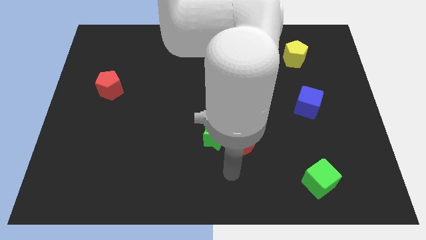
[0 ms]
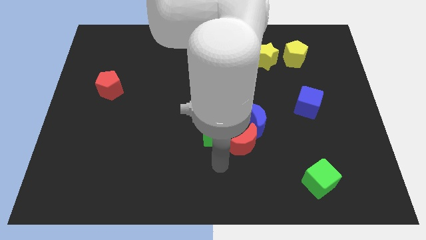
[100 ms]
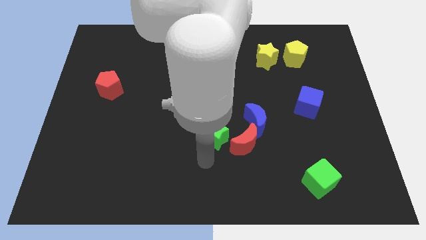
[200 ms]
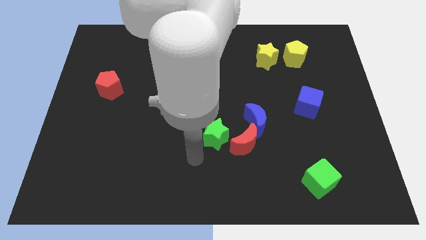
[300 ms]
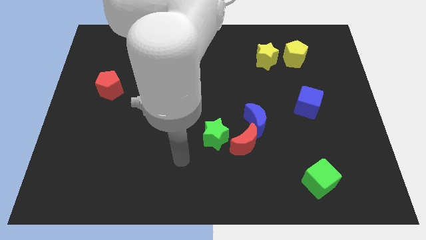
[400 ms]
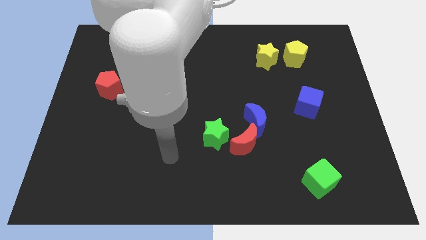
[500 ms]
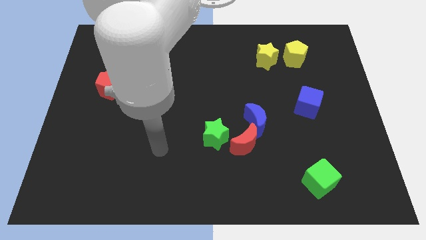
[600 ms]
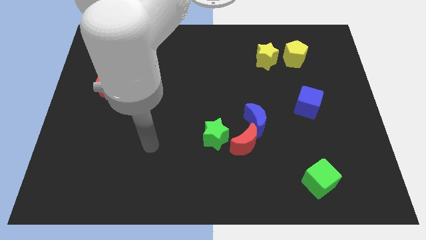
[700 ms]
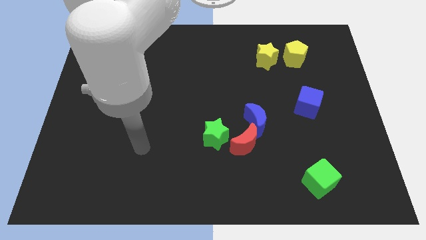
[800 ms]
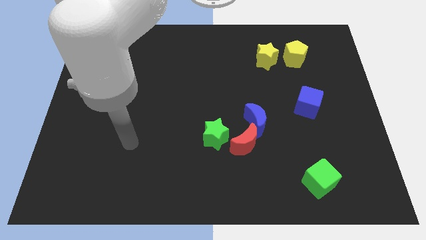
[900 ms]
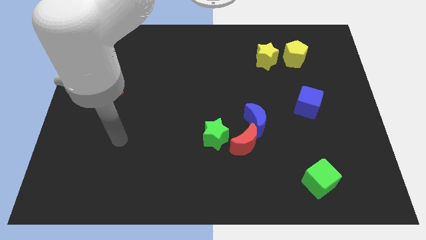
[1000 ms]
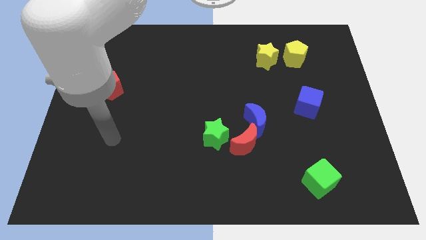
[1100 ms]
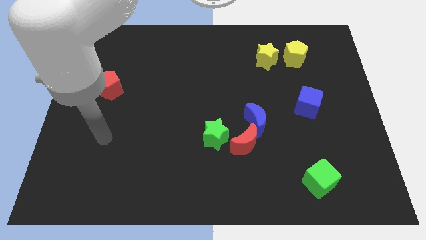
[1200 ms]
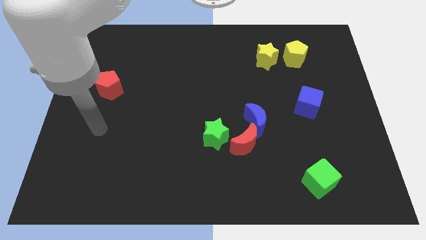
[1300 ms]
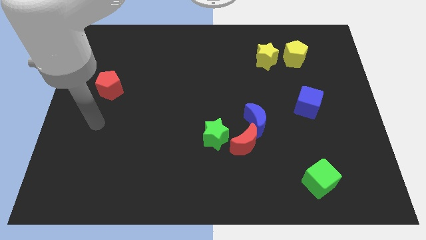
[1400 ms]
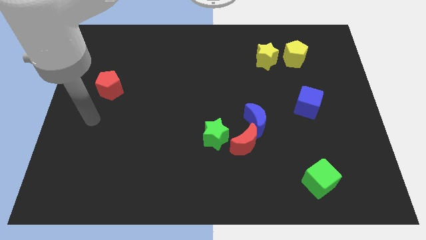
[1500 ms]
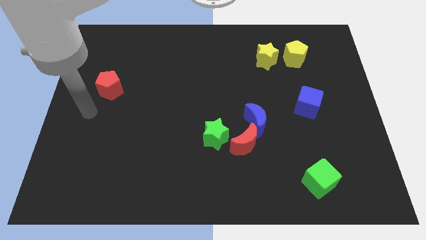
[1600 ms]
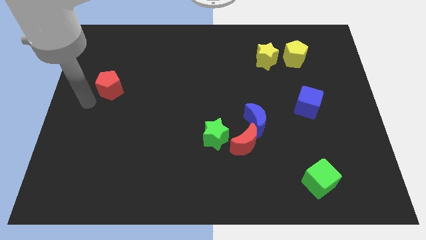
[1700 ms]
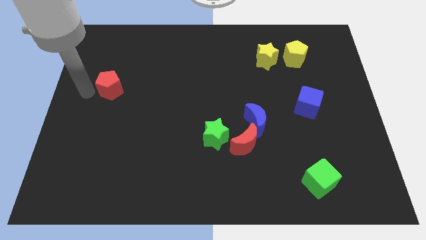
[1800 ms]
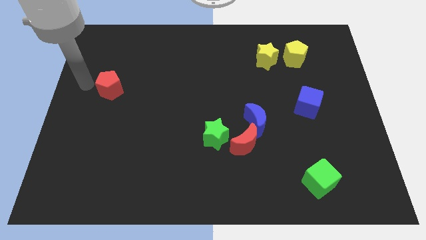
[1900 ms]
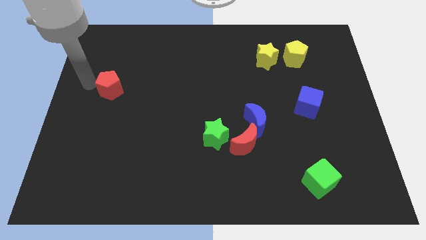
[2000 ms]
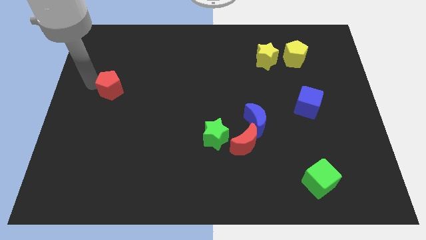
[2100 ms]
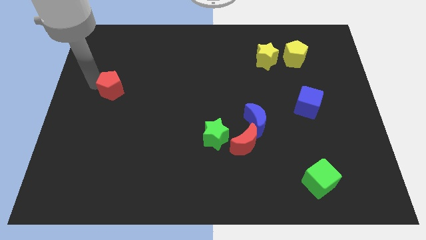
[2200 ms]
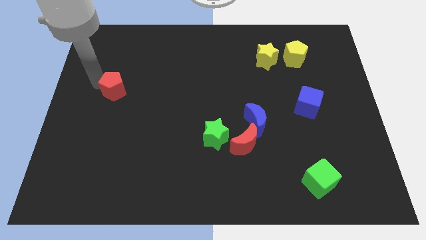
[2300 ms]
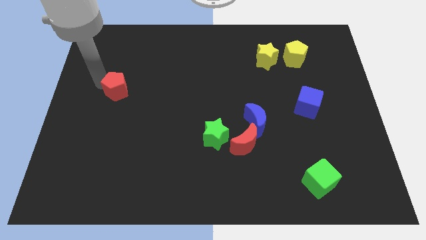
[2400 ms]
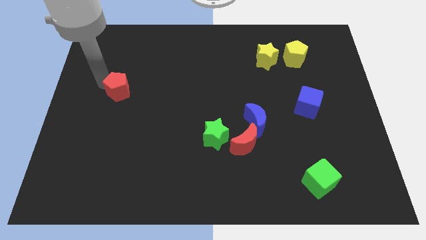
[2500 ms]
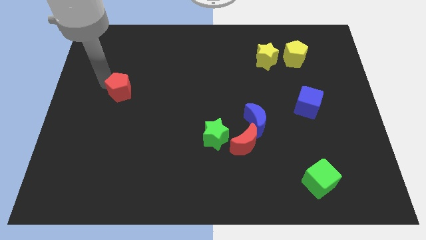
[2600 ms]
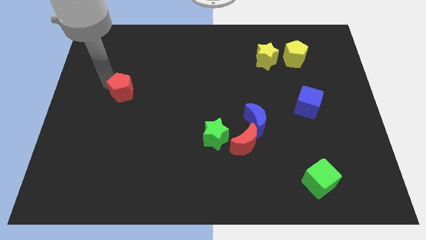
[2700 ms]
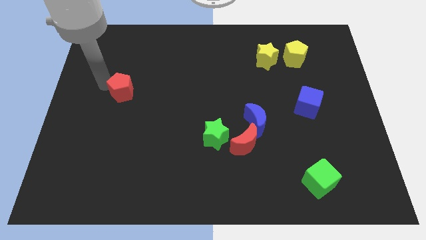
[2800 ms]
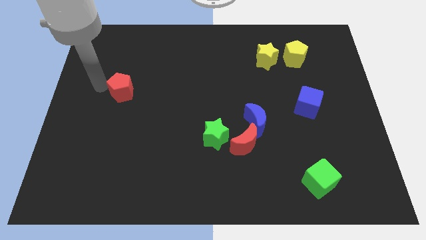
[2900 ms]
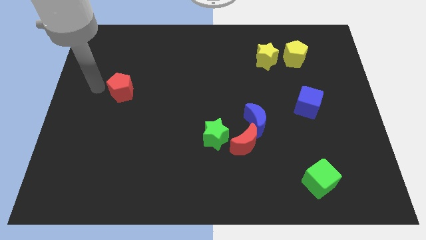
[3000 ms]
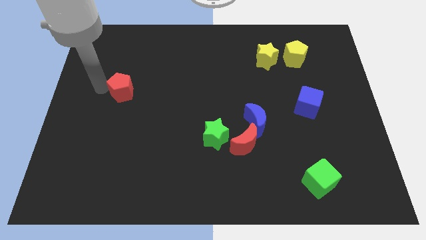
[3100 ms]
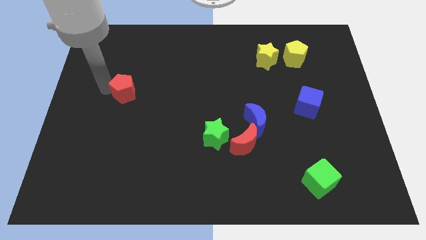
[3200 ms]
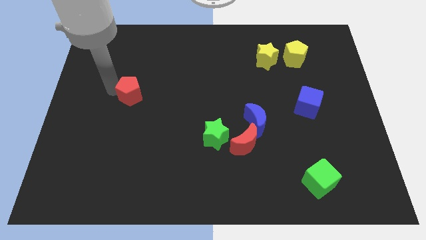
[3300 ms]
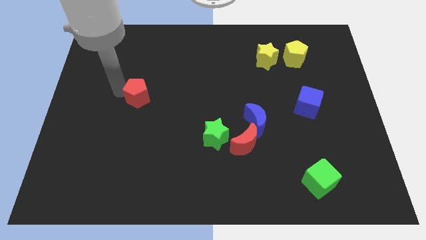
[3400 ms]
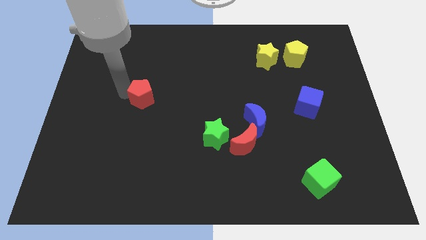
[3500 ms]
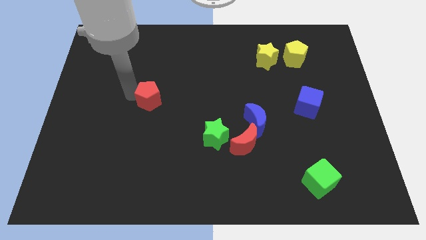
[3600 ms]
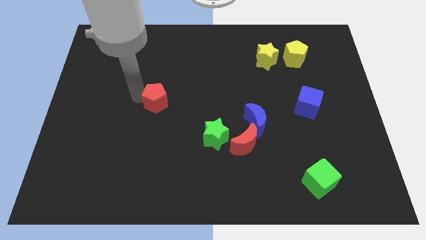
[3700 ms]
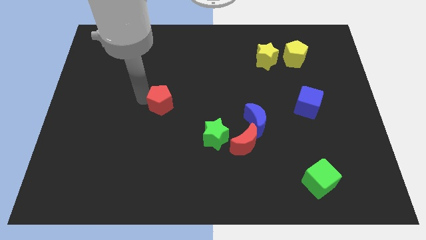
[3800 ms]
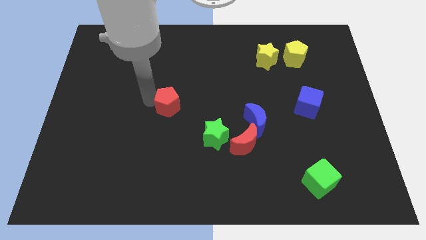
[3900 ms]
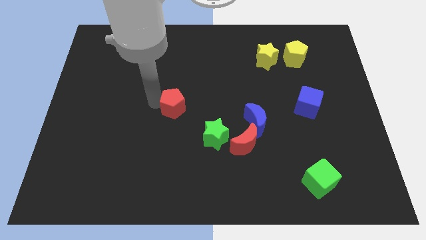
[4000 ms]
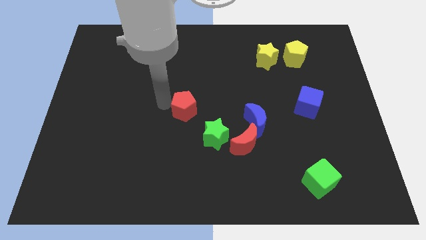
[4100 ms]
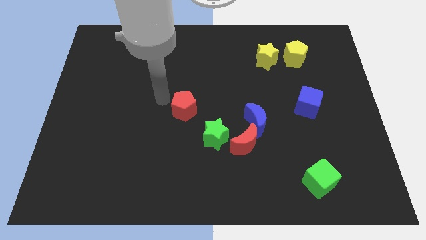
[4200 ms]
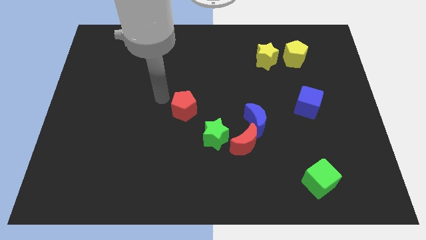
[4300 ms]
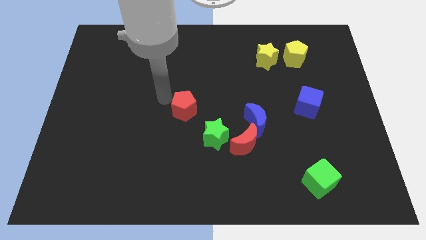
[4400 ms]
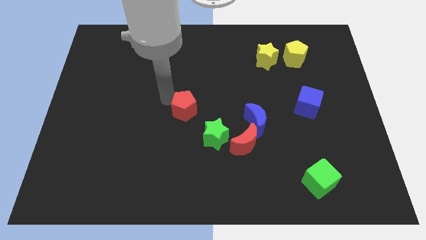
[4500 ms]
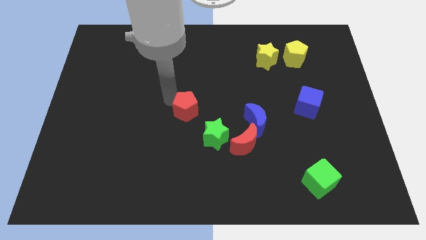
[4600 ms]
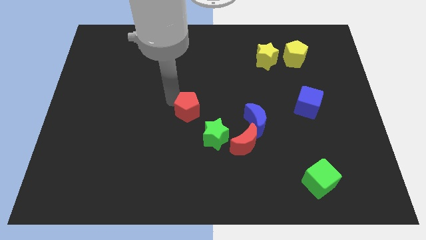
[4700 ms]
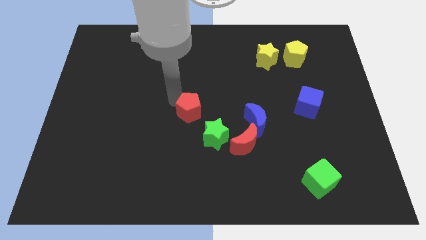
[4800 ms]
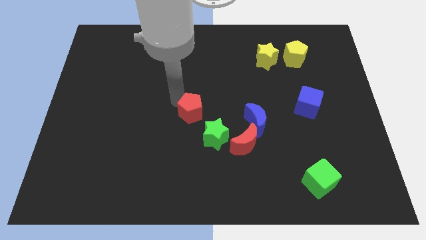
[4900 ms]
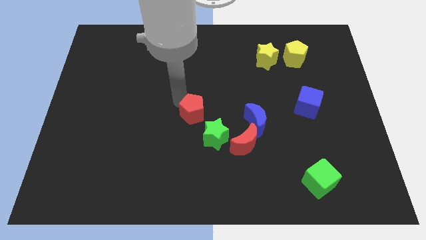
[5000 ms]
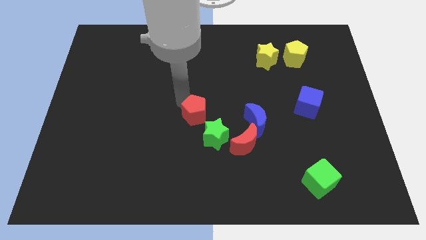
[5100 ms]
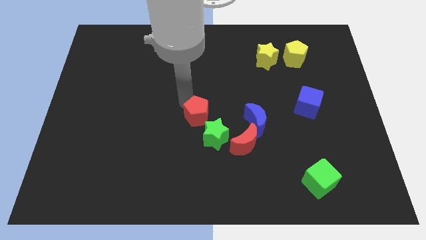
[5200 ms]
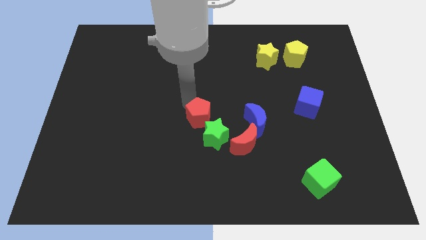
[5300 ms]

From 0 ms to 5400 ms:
slide the red pentagon to the top left of the red moon

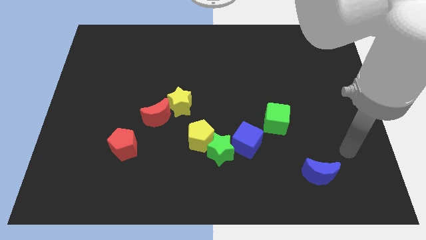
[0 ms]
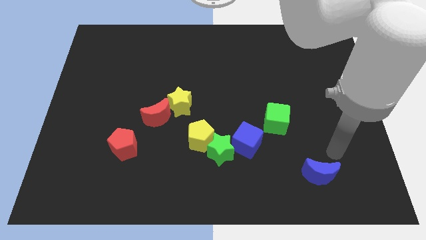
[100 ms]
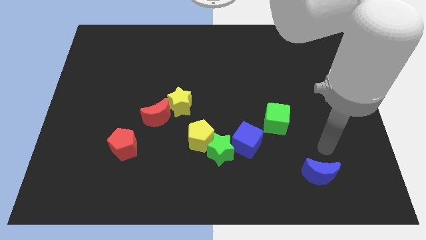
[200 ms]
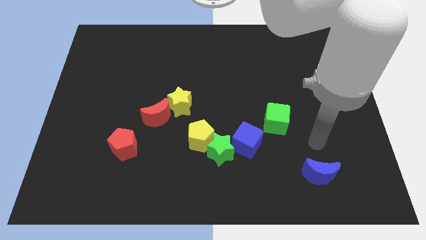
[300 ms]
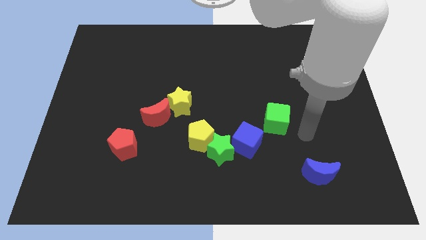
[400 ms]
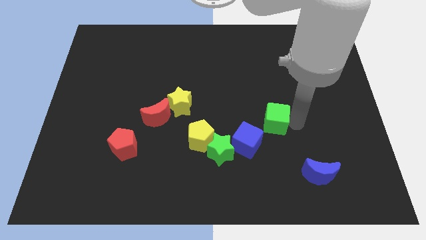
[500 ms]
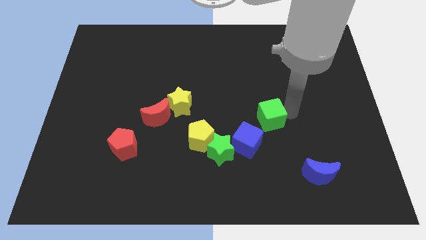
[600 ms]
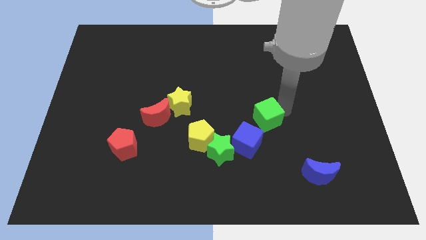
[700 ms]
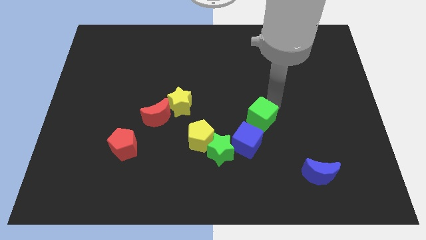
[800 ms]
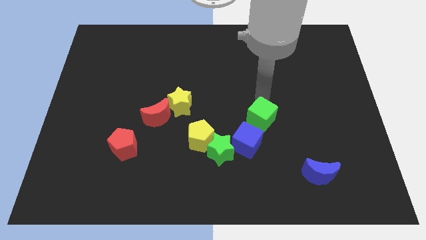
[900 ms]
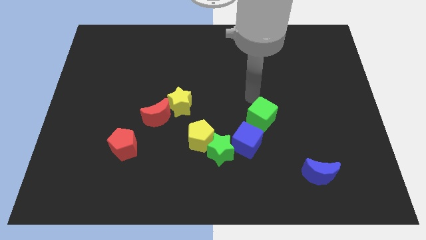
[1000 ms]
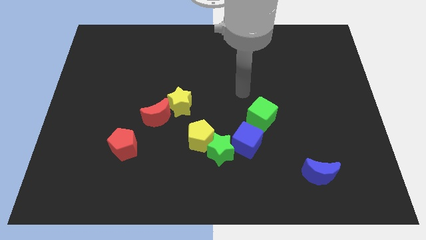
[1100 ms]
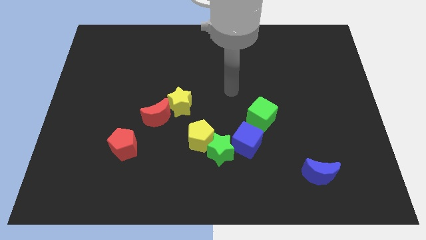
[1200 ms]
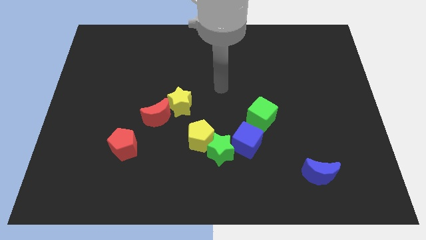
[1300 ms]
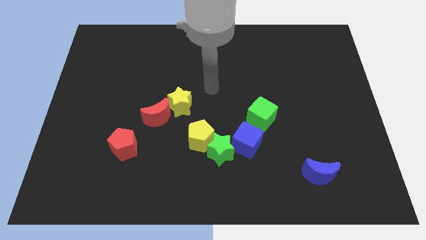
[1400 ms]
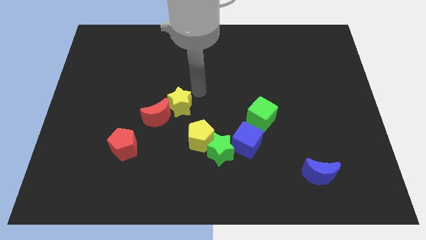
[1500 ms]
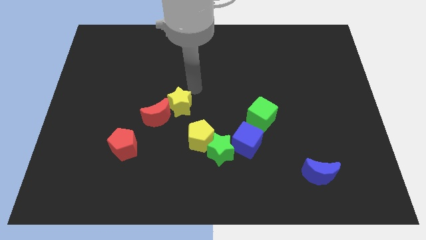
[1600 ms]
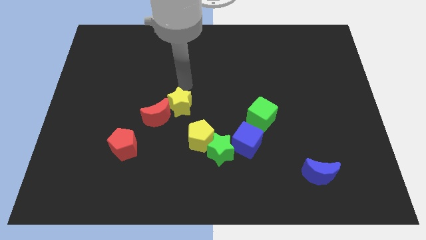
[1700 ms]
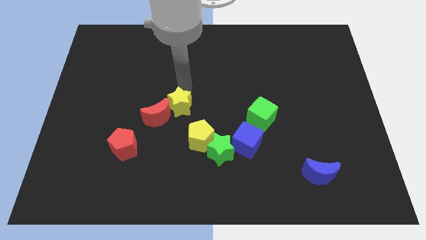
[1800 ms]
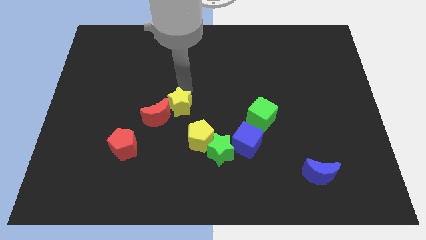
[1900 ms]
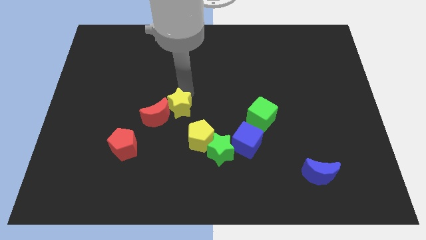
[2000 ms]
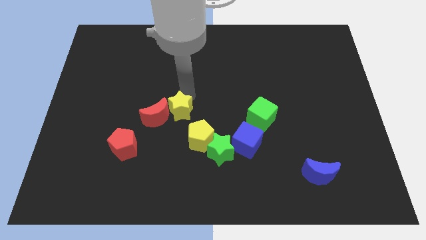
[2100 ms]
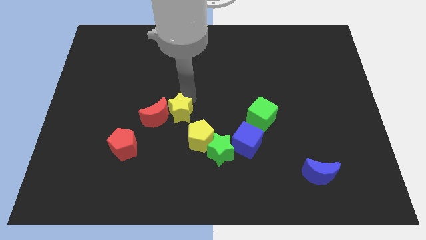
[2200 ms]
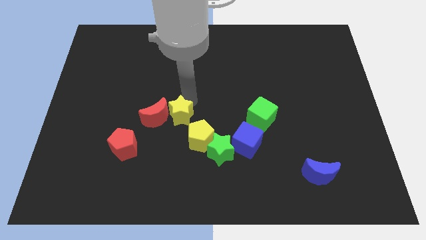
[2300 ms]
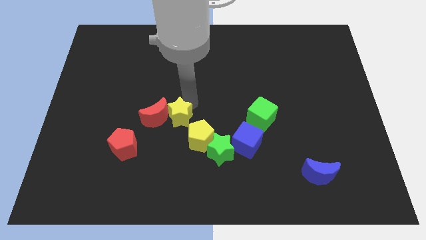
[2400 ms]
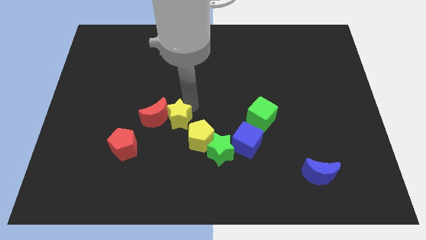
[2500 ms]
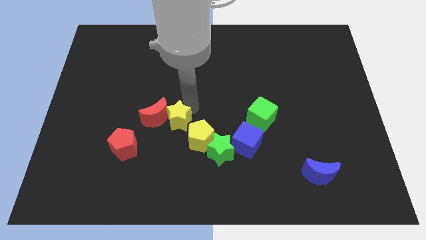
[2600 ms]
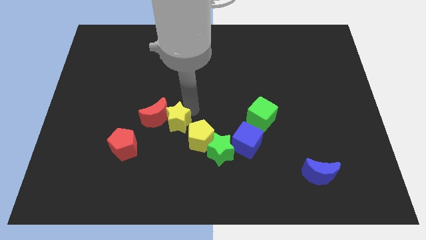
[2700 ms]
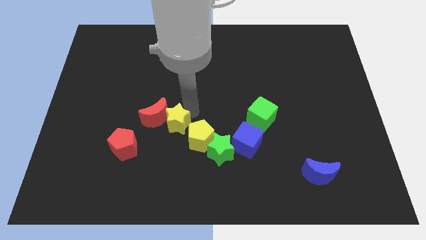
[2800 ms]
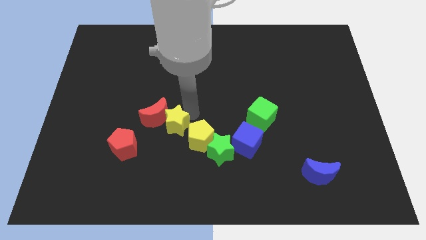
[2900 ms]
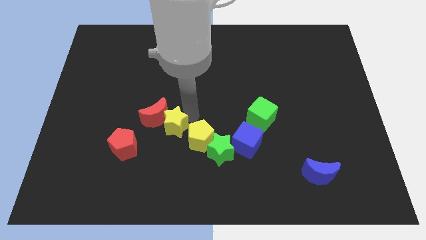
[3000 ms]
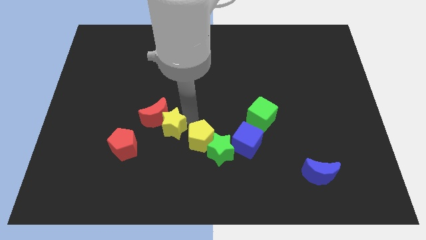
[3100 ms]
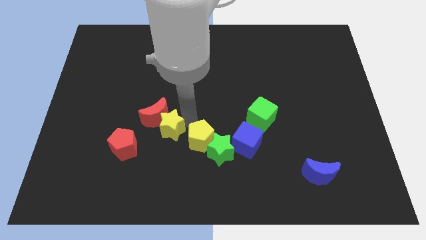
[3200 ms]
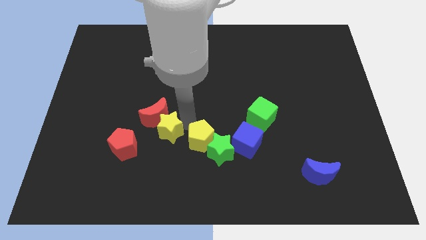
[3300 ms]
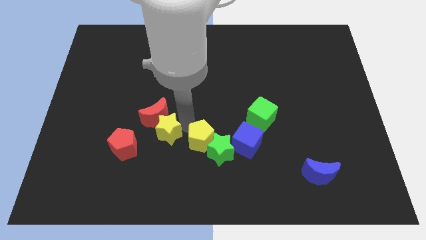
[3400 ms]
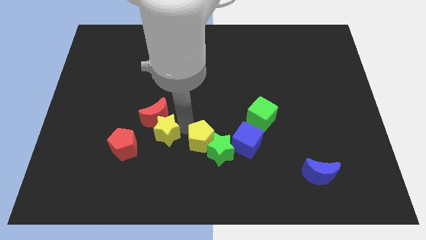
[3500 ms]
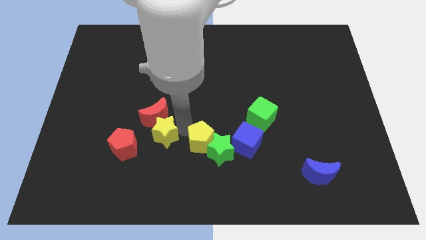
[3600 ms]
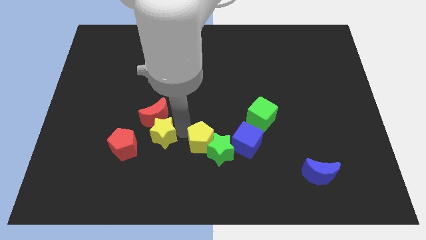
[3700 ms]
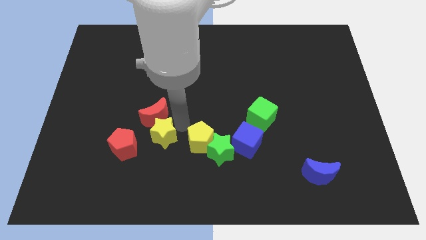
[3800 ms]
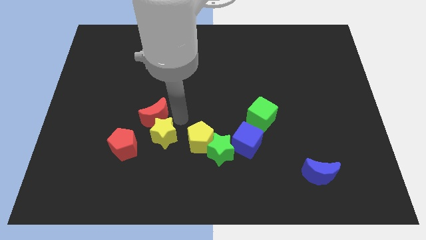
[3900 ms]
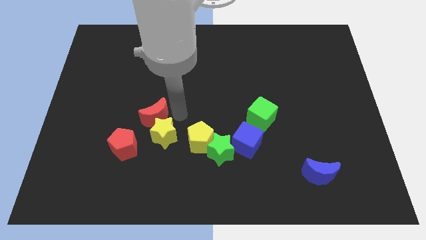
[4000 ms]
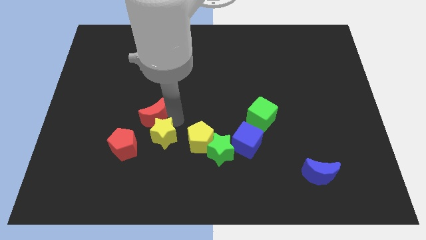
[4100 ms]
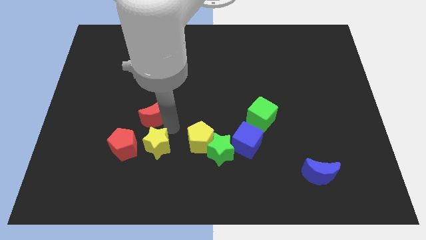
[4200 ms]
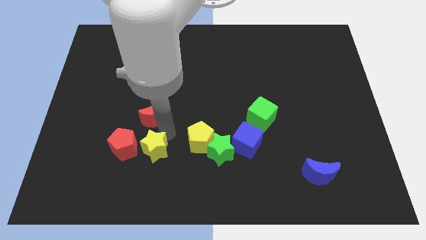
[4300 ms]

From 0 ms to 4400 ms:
slide the yellow star diagonally down and to the right of the red pentagon
